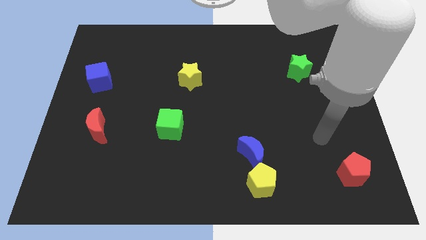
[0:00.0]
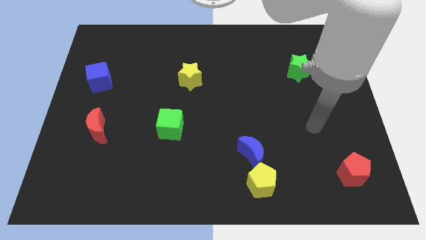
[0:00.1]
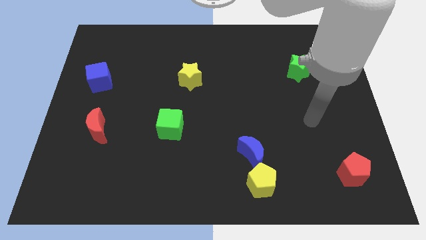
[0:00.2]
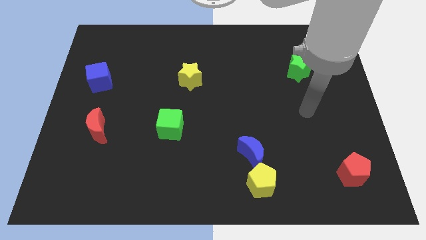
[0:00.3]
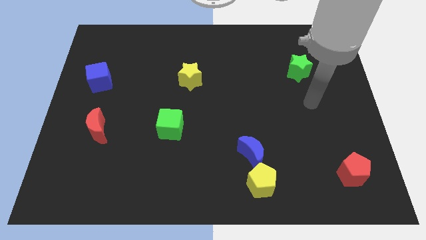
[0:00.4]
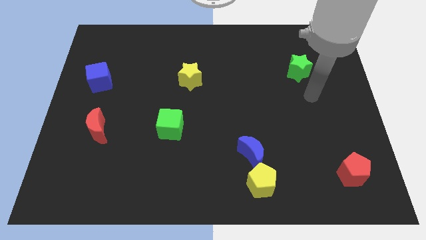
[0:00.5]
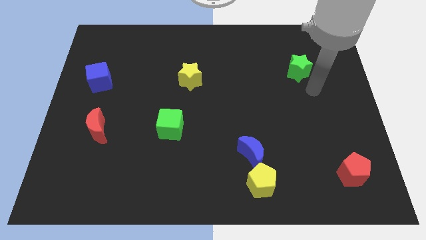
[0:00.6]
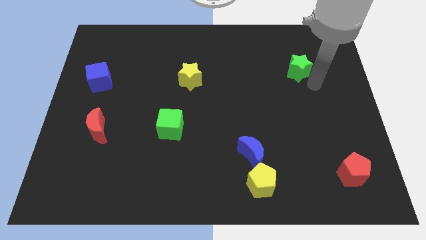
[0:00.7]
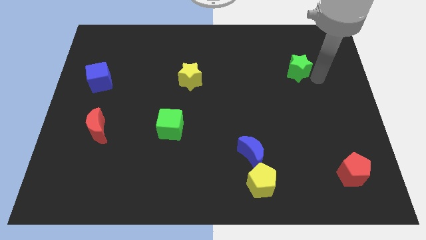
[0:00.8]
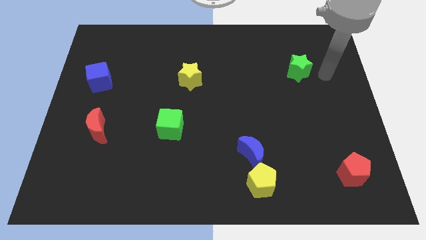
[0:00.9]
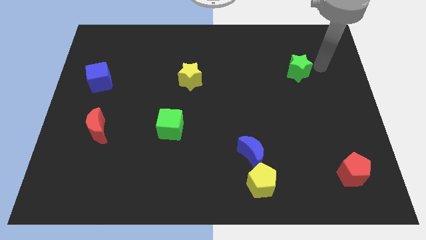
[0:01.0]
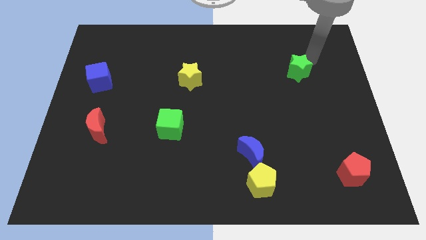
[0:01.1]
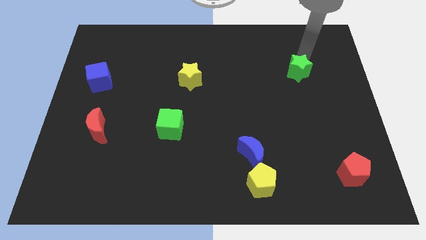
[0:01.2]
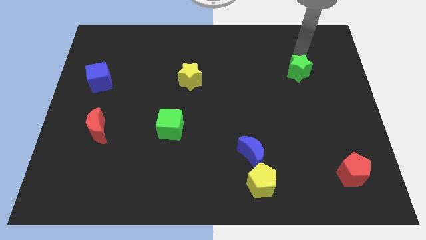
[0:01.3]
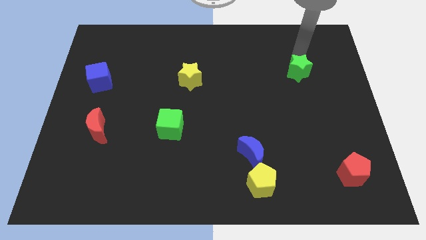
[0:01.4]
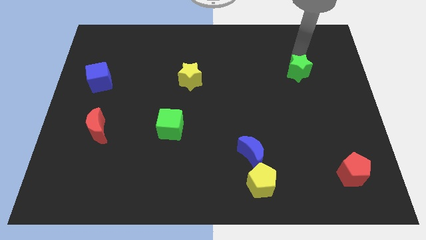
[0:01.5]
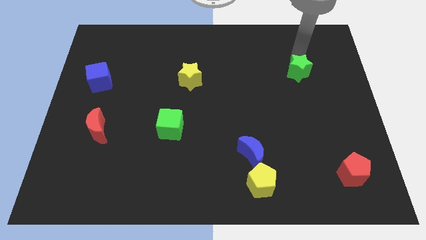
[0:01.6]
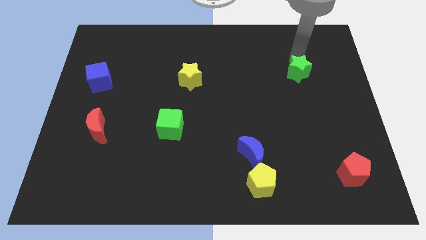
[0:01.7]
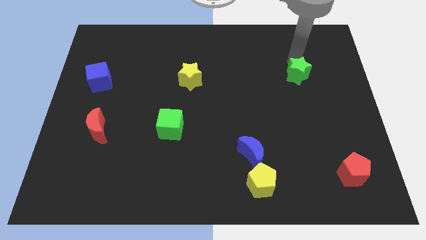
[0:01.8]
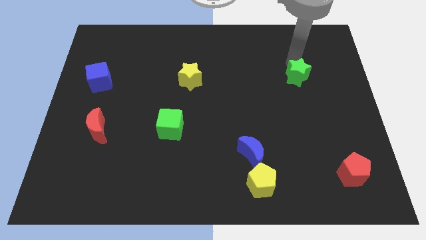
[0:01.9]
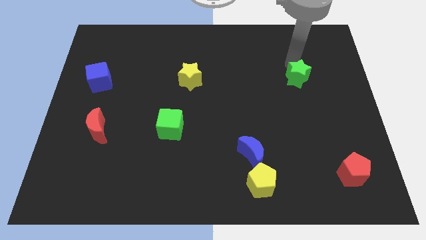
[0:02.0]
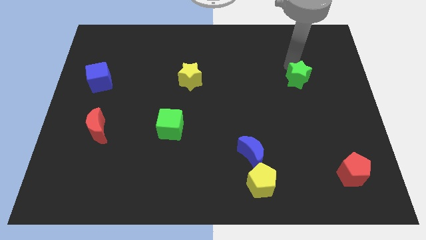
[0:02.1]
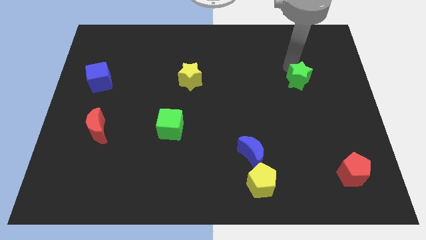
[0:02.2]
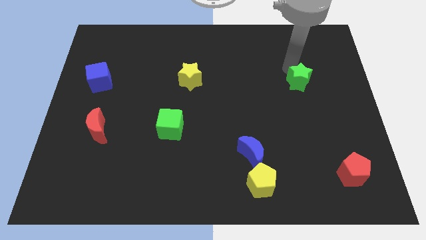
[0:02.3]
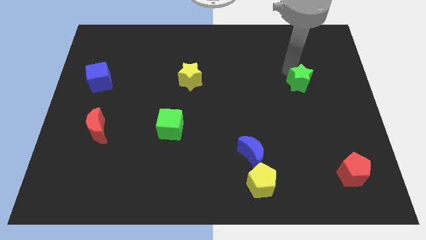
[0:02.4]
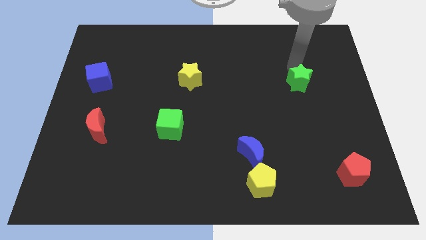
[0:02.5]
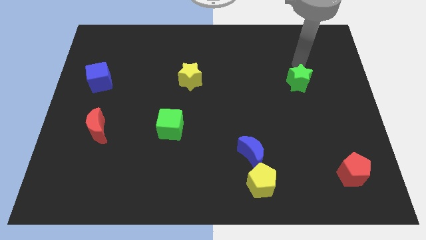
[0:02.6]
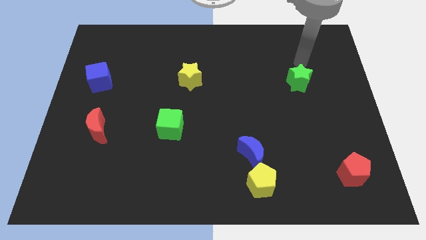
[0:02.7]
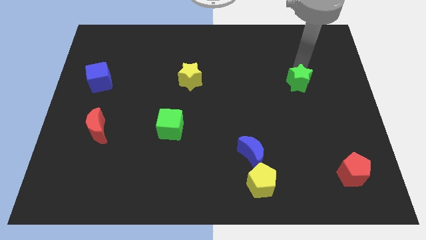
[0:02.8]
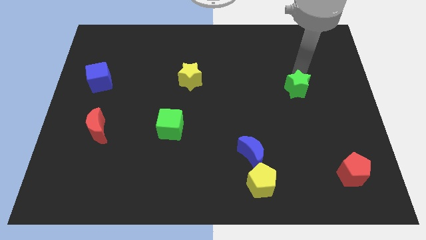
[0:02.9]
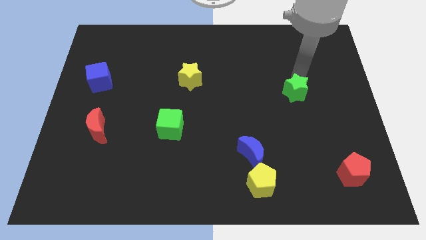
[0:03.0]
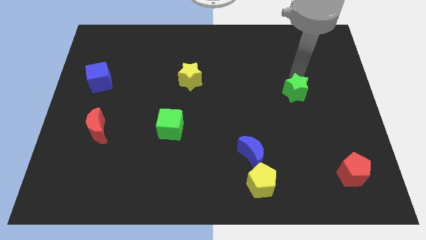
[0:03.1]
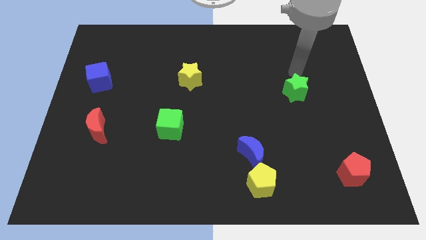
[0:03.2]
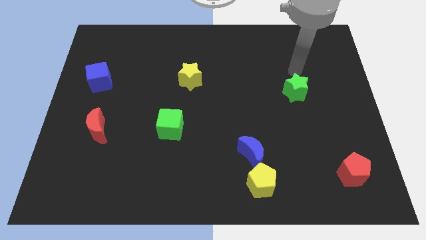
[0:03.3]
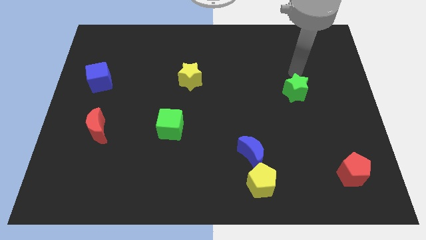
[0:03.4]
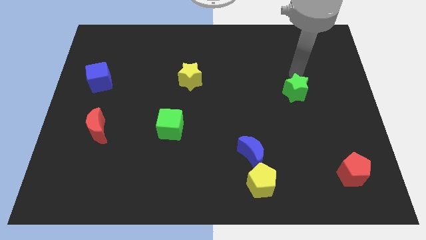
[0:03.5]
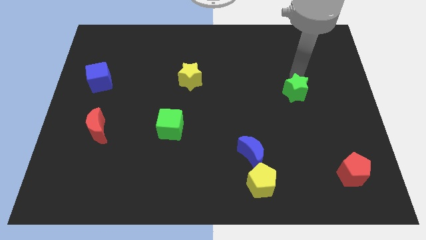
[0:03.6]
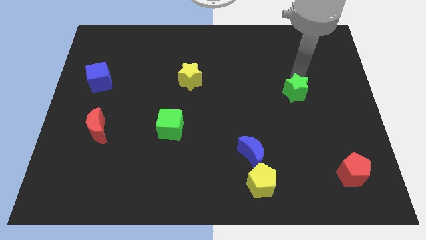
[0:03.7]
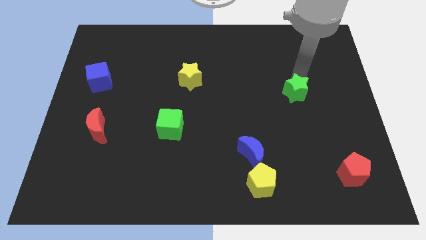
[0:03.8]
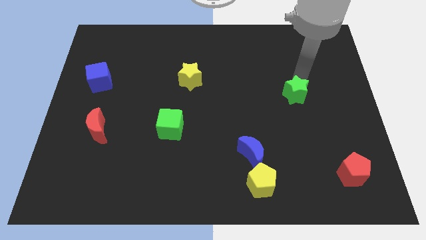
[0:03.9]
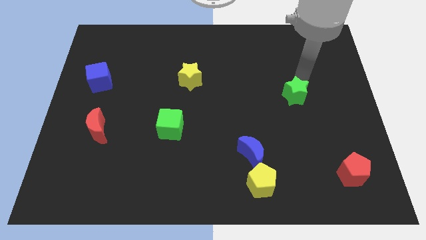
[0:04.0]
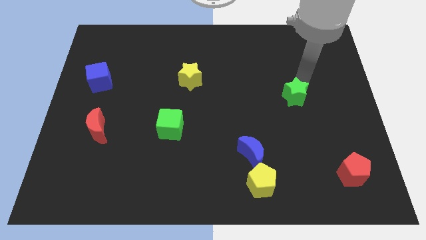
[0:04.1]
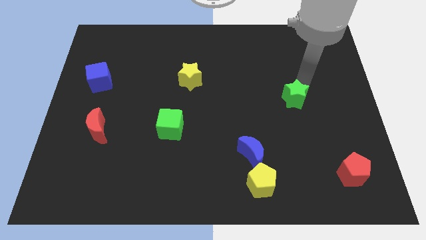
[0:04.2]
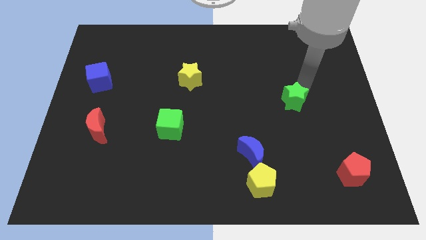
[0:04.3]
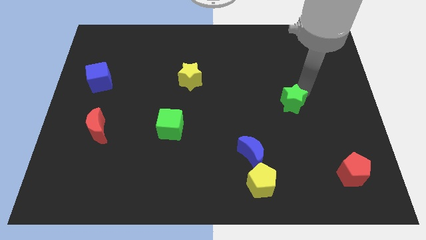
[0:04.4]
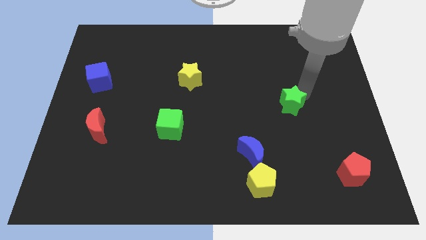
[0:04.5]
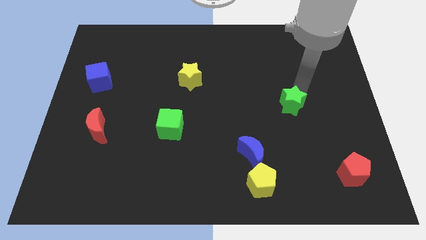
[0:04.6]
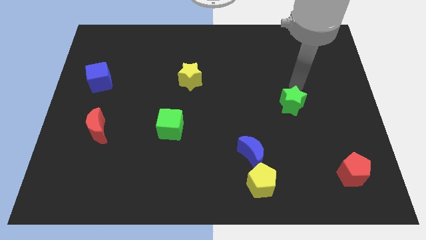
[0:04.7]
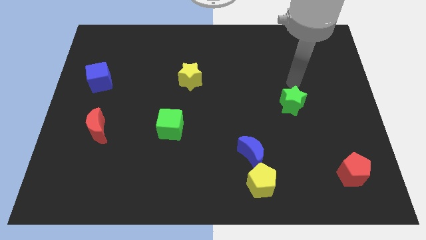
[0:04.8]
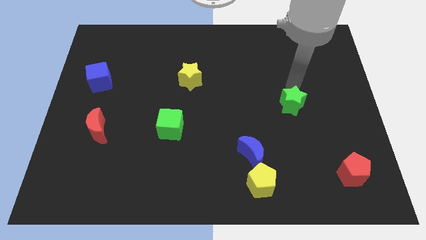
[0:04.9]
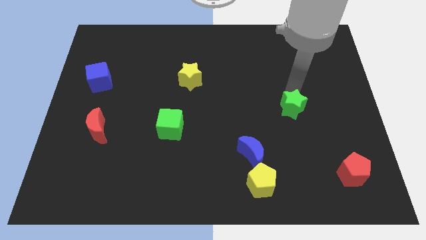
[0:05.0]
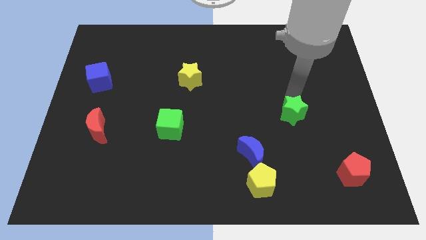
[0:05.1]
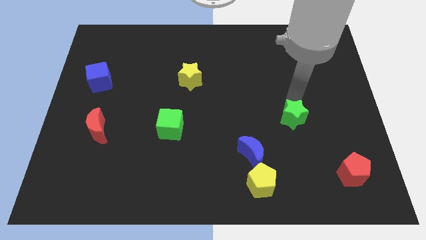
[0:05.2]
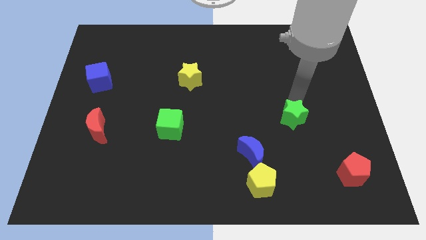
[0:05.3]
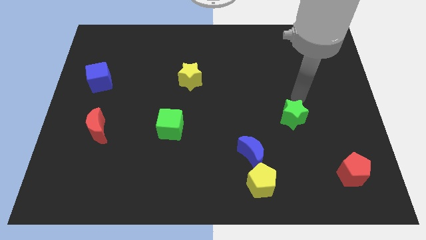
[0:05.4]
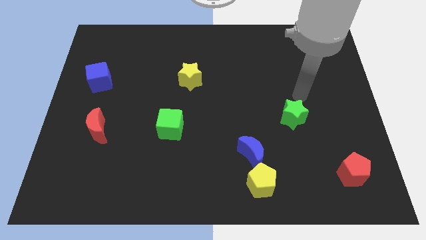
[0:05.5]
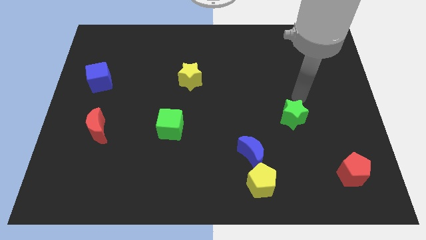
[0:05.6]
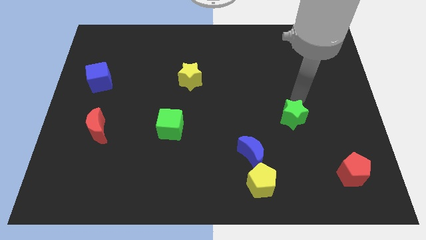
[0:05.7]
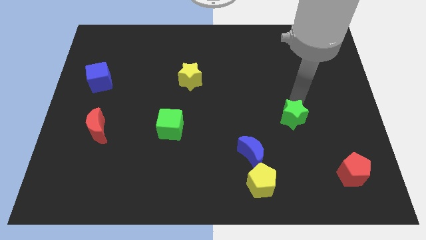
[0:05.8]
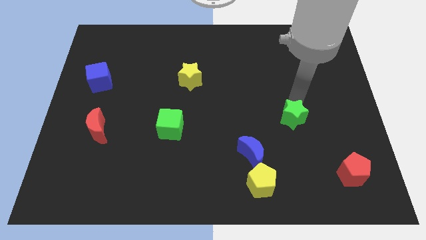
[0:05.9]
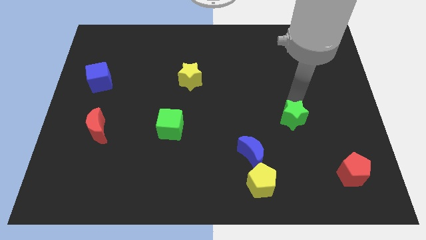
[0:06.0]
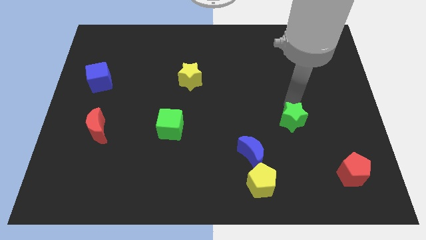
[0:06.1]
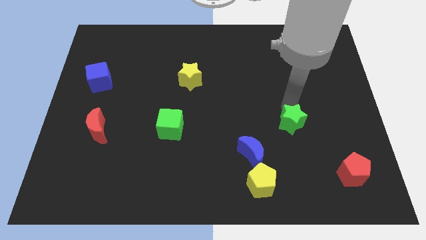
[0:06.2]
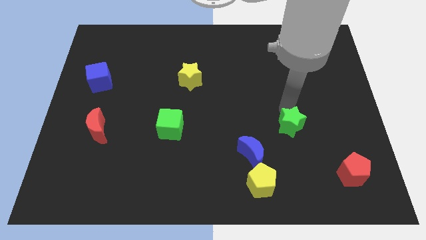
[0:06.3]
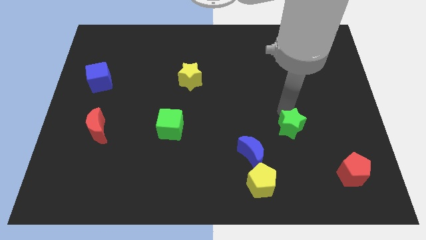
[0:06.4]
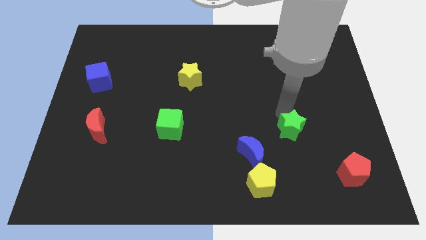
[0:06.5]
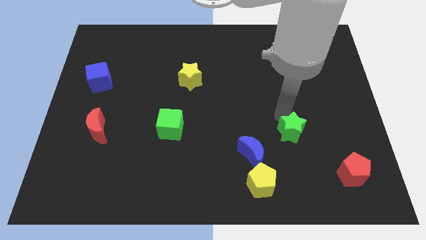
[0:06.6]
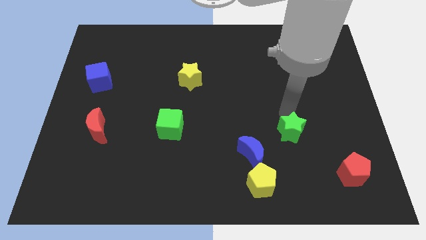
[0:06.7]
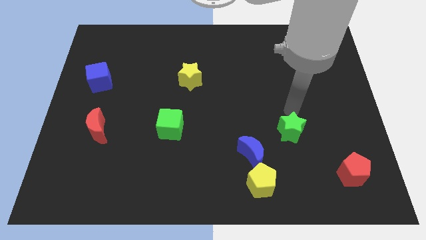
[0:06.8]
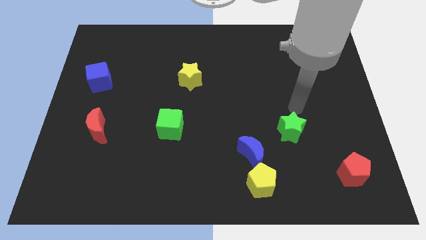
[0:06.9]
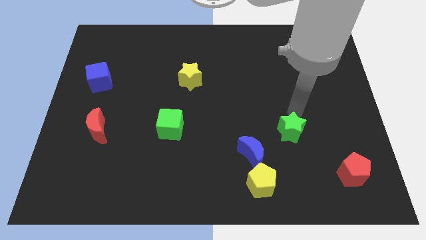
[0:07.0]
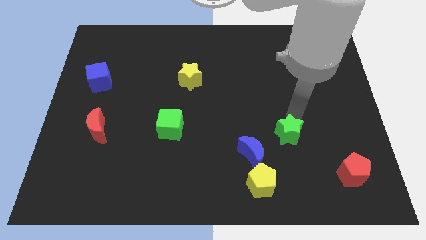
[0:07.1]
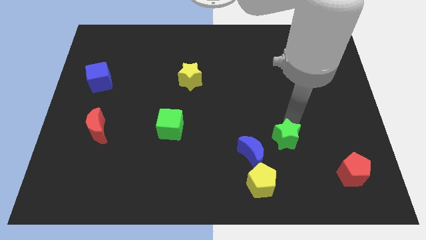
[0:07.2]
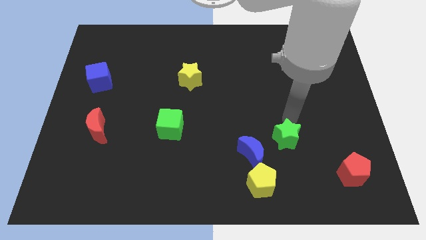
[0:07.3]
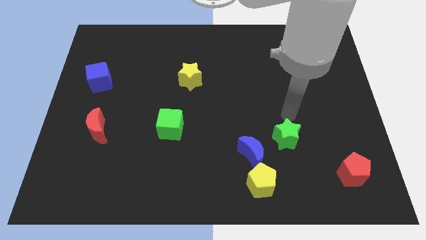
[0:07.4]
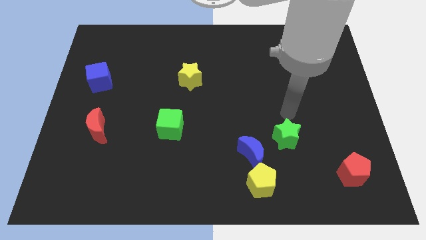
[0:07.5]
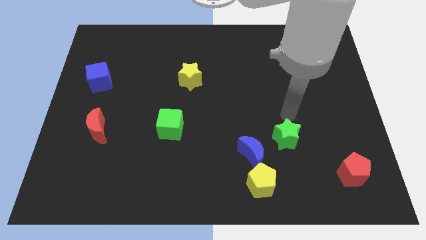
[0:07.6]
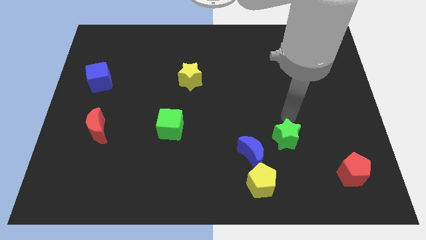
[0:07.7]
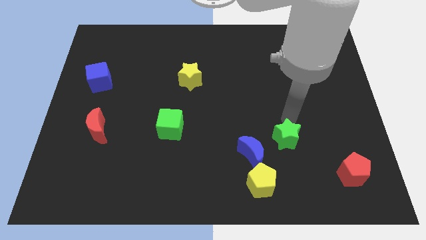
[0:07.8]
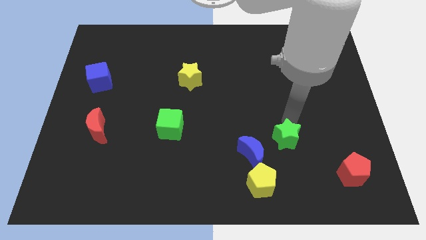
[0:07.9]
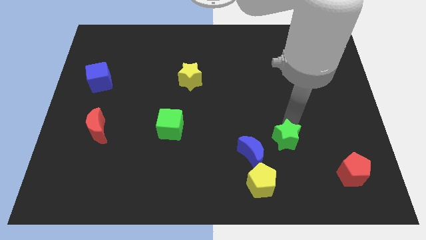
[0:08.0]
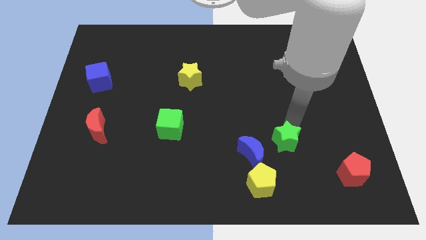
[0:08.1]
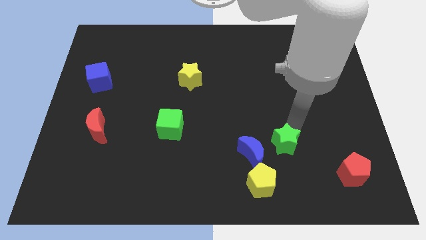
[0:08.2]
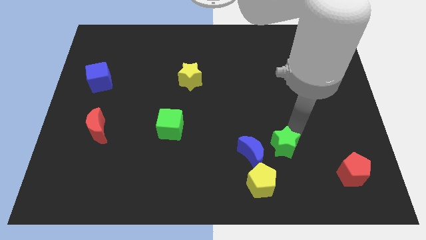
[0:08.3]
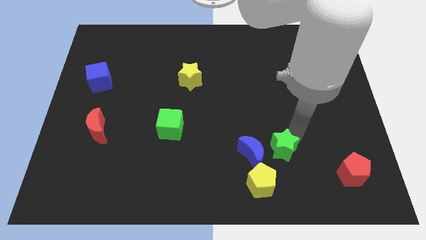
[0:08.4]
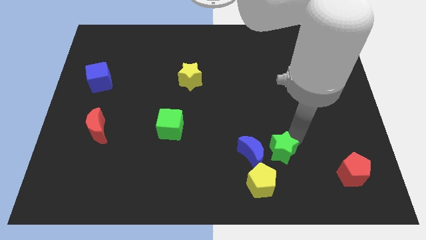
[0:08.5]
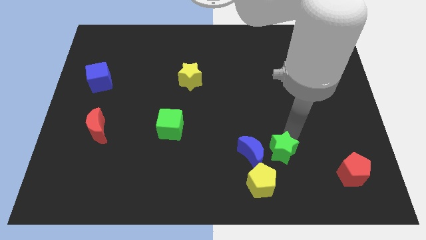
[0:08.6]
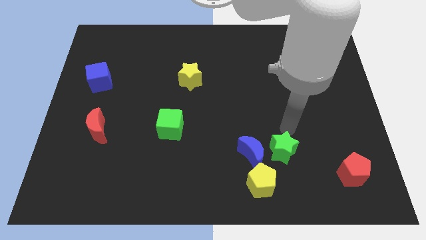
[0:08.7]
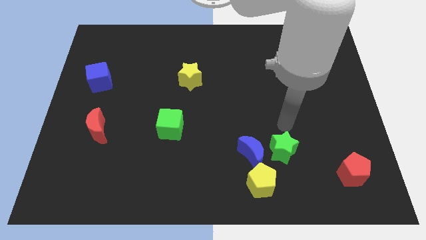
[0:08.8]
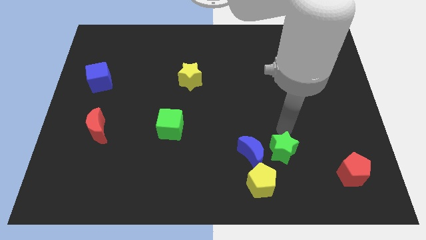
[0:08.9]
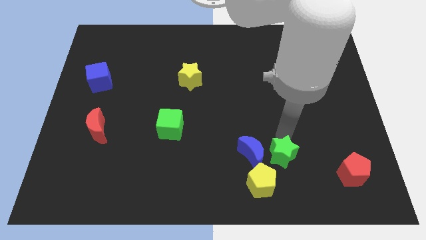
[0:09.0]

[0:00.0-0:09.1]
move the green star to the bottom right of the blue moon
